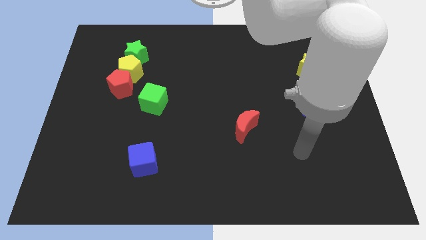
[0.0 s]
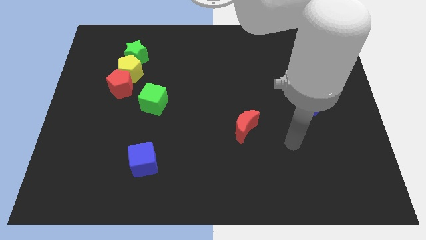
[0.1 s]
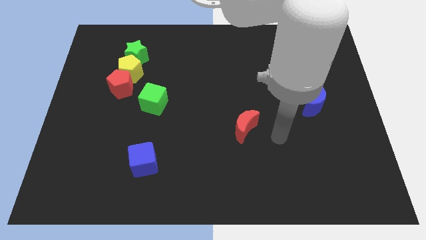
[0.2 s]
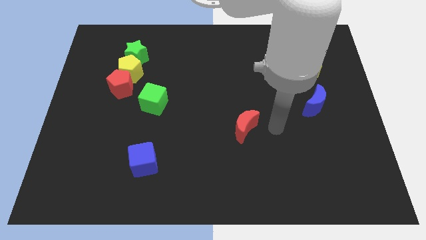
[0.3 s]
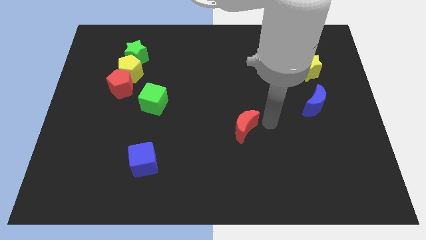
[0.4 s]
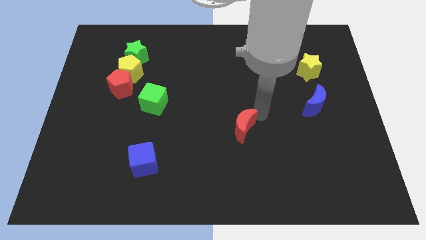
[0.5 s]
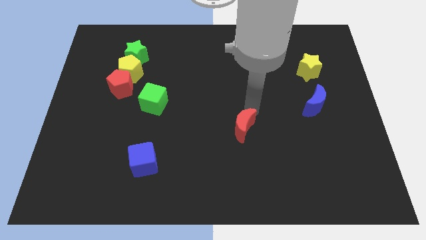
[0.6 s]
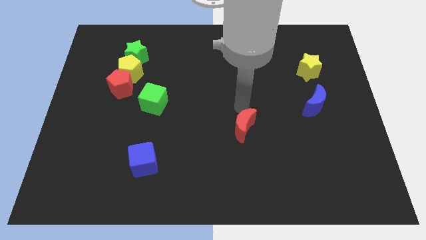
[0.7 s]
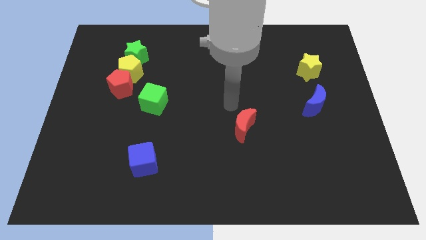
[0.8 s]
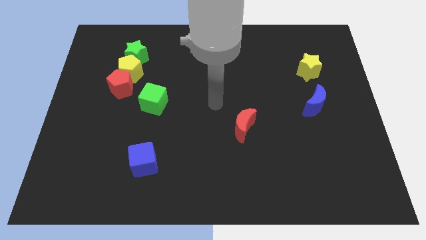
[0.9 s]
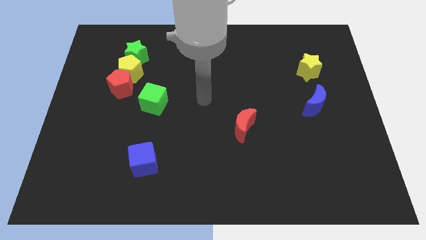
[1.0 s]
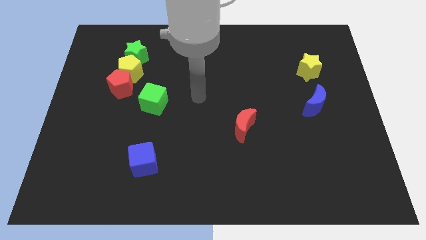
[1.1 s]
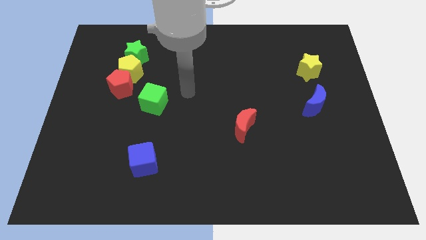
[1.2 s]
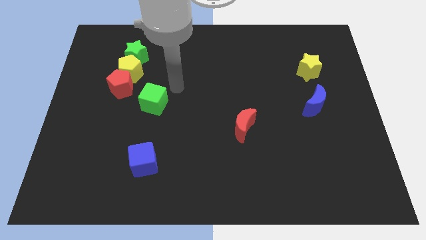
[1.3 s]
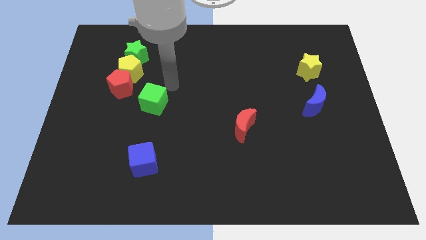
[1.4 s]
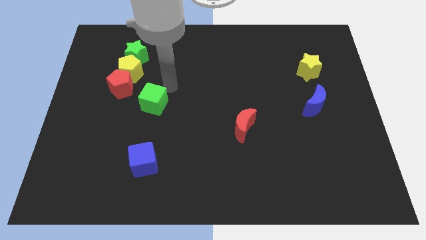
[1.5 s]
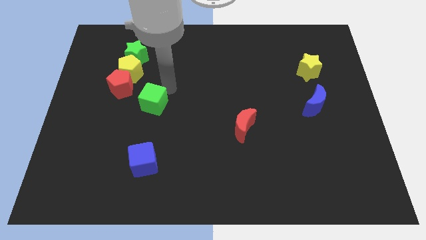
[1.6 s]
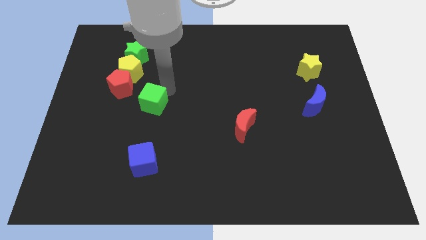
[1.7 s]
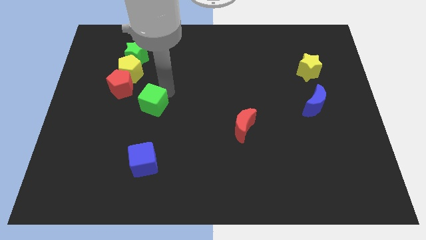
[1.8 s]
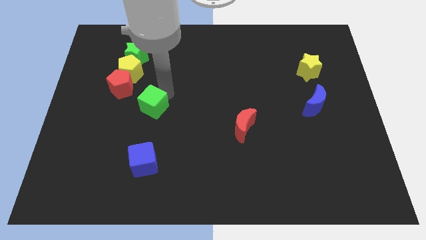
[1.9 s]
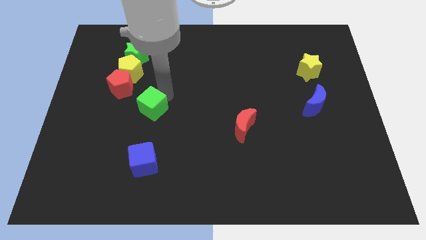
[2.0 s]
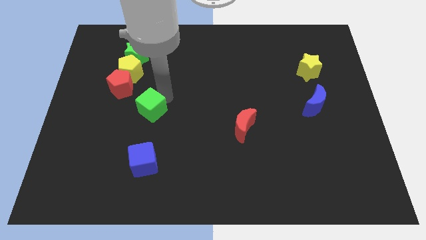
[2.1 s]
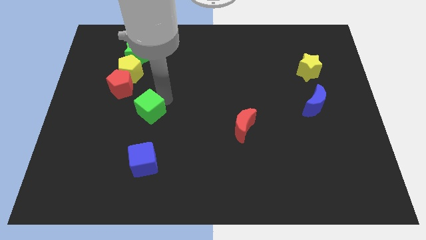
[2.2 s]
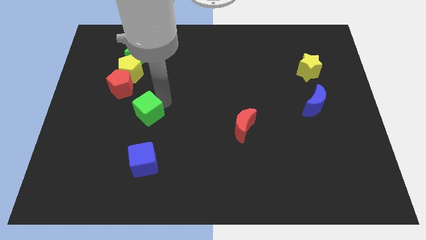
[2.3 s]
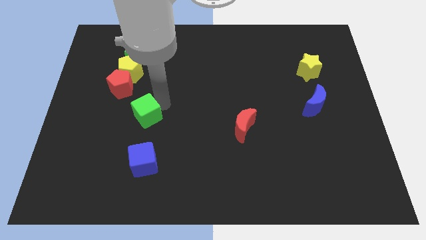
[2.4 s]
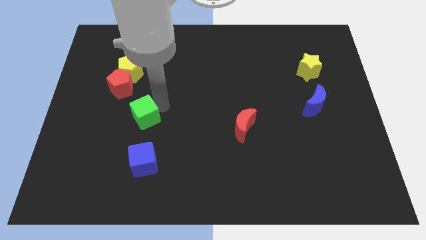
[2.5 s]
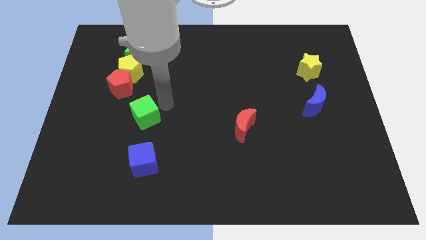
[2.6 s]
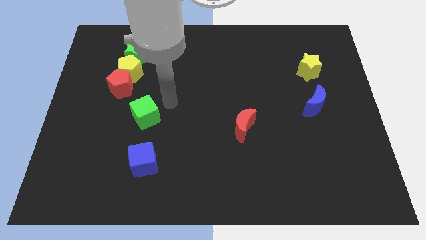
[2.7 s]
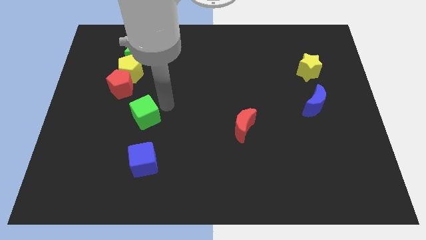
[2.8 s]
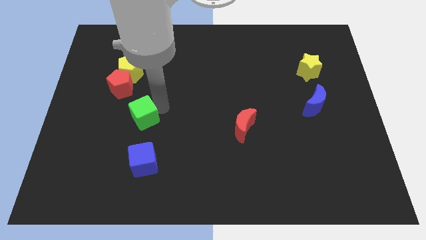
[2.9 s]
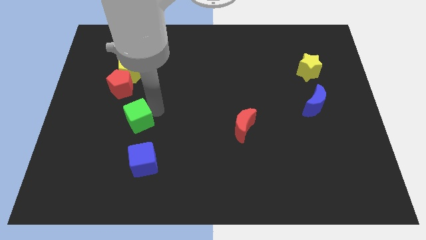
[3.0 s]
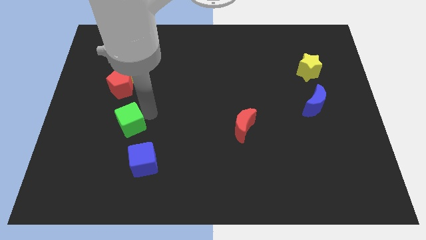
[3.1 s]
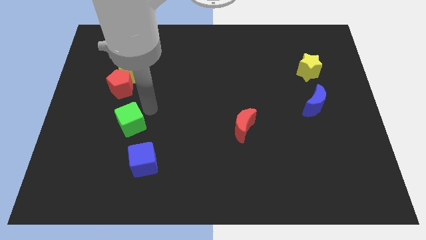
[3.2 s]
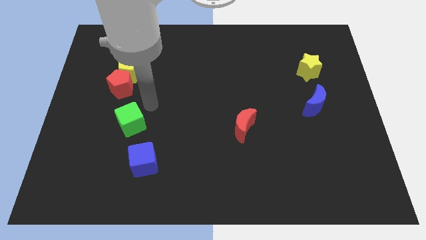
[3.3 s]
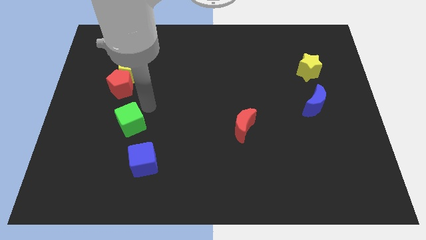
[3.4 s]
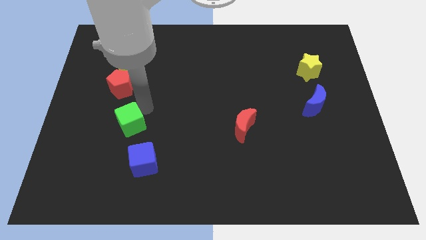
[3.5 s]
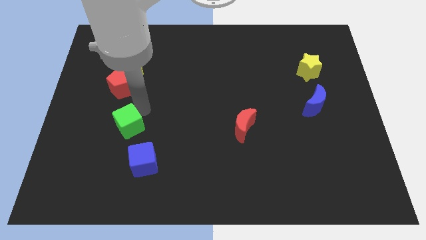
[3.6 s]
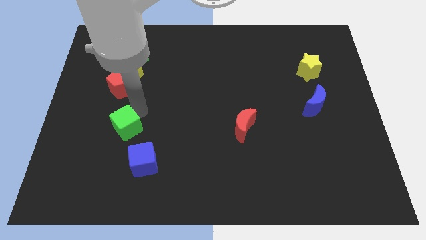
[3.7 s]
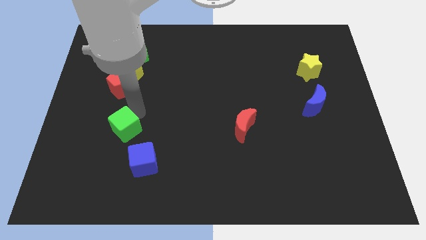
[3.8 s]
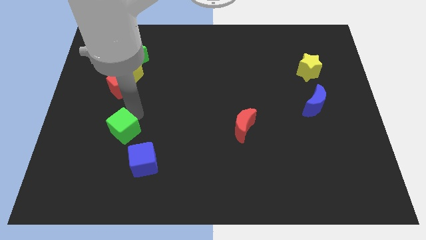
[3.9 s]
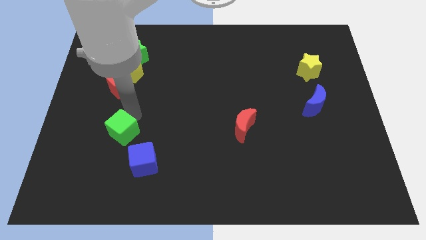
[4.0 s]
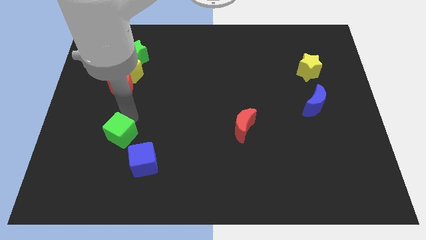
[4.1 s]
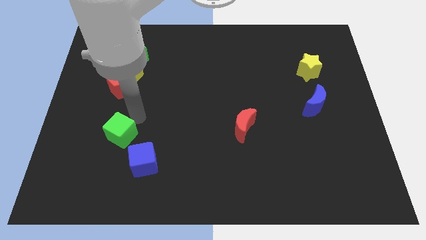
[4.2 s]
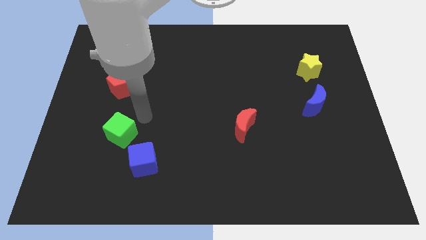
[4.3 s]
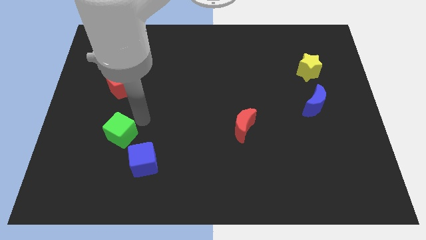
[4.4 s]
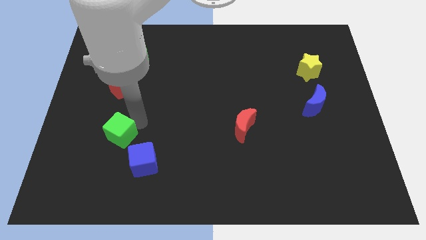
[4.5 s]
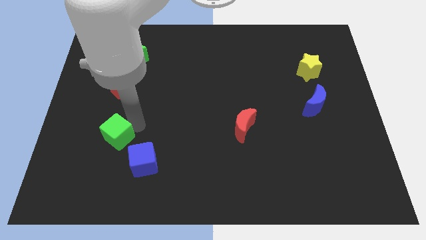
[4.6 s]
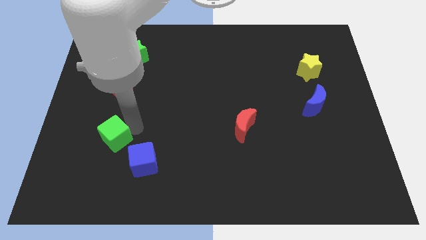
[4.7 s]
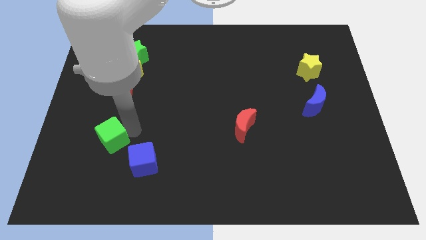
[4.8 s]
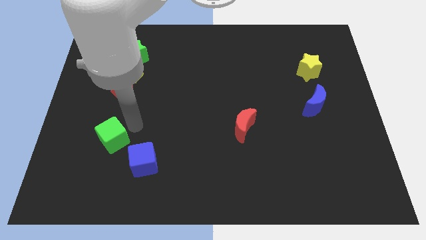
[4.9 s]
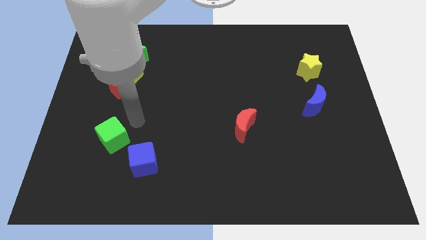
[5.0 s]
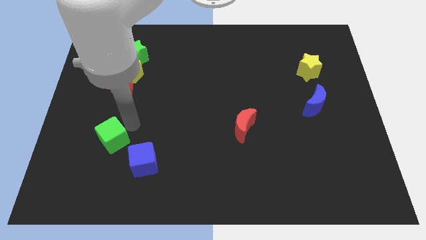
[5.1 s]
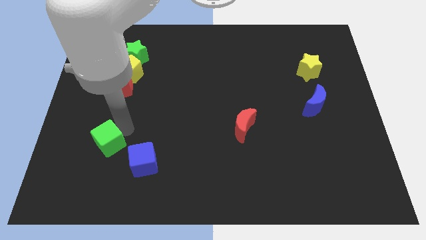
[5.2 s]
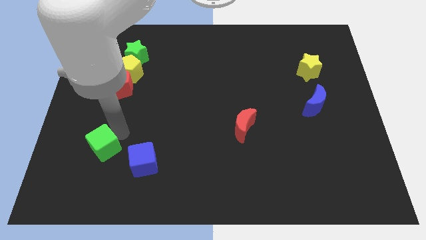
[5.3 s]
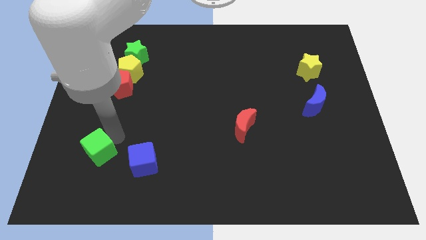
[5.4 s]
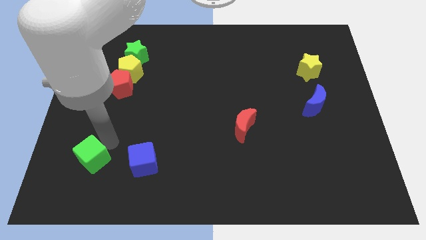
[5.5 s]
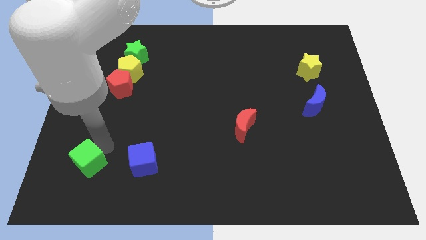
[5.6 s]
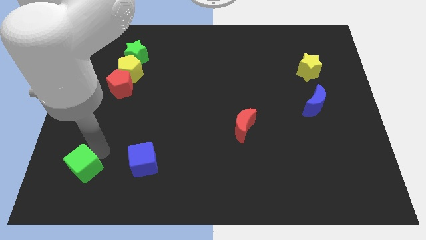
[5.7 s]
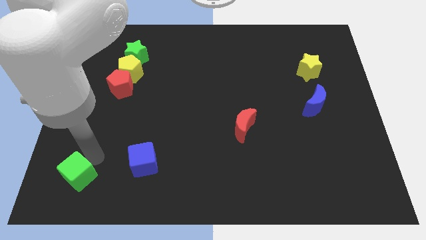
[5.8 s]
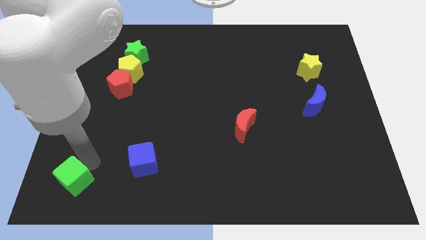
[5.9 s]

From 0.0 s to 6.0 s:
push the green cube to the lower left corner
